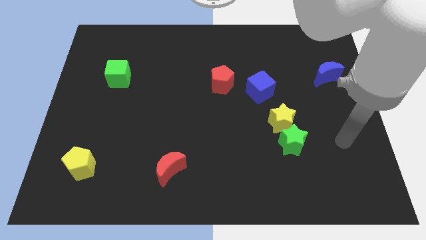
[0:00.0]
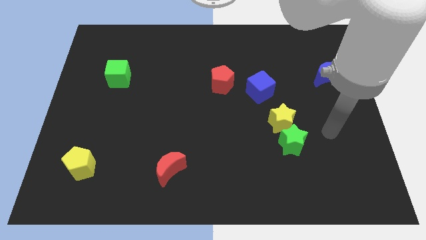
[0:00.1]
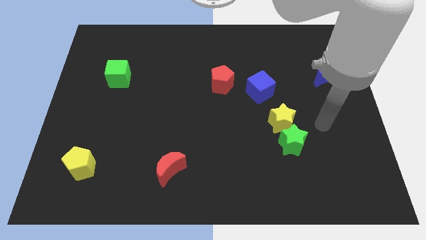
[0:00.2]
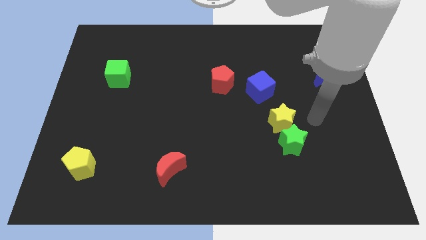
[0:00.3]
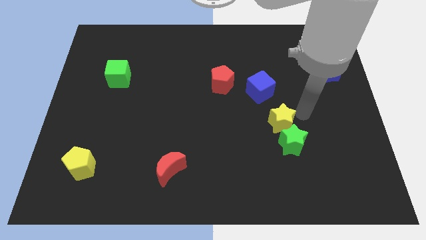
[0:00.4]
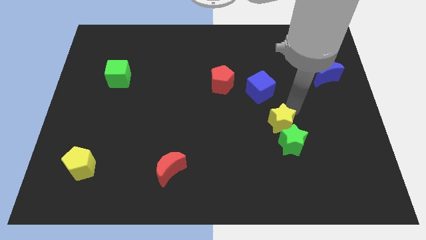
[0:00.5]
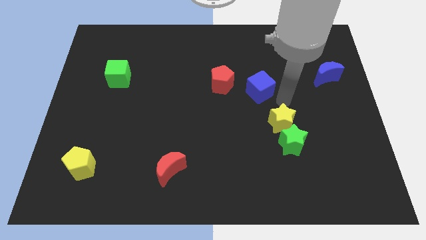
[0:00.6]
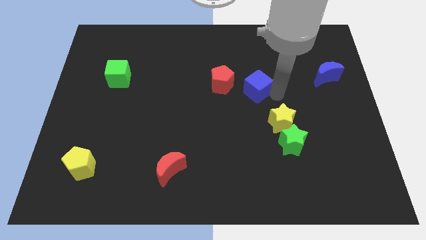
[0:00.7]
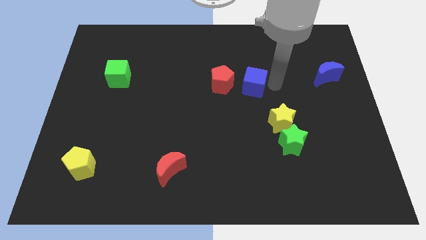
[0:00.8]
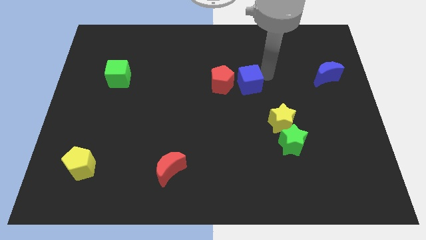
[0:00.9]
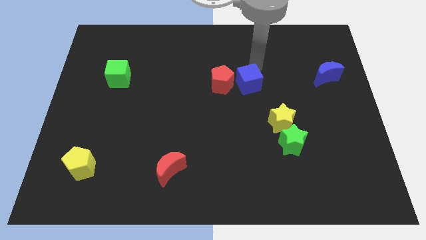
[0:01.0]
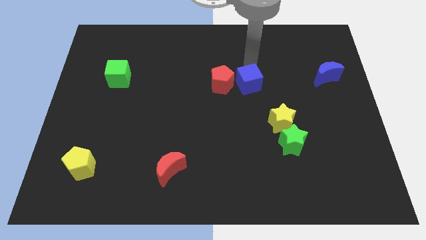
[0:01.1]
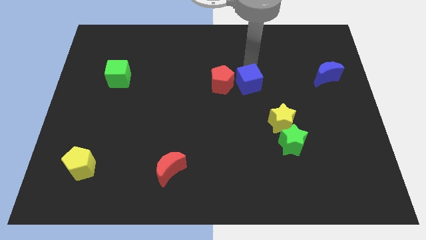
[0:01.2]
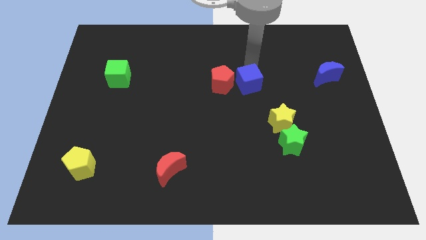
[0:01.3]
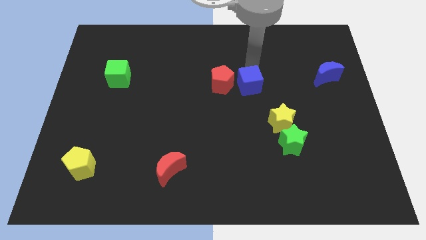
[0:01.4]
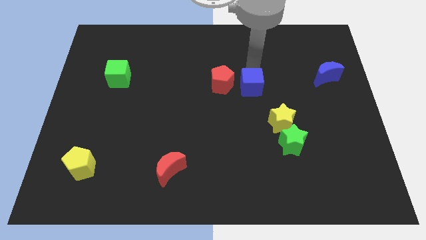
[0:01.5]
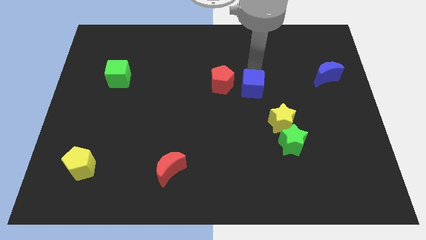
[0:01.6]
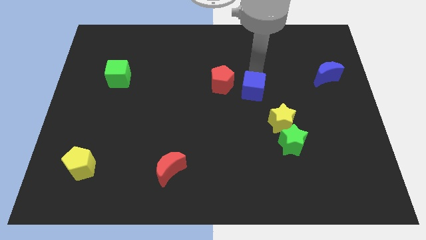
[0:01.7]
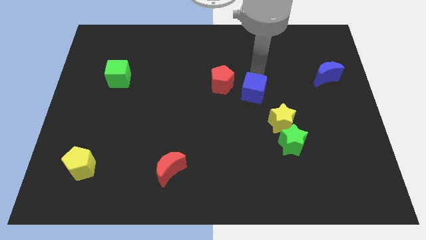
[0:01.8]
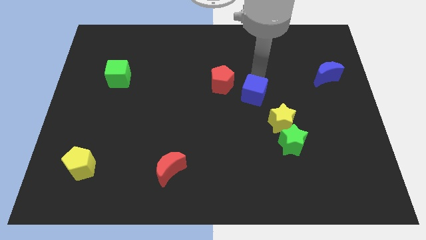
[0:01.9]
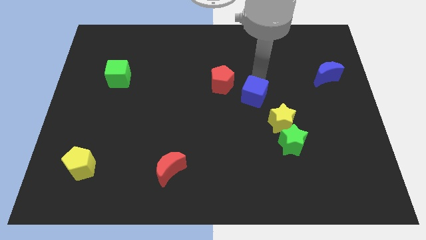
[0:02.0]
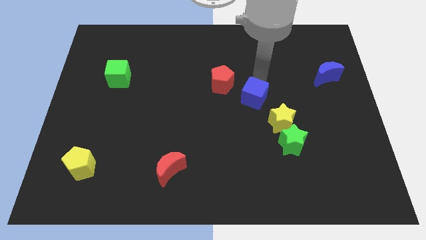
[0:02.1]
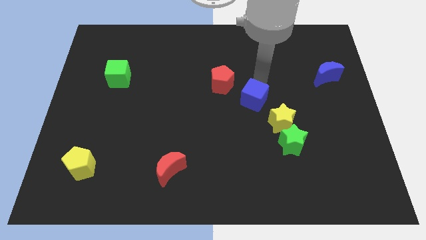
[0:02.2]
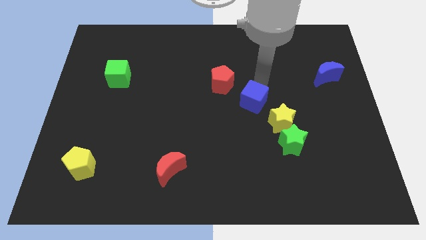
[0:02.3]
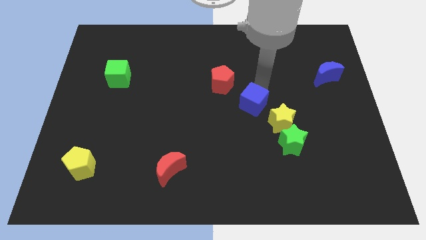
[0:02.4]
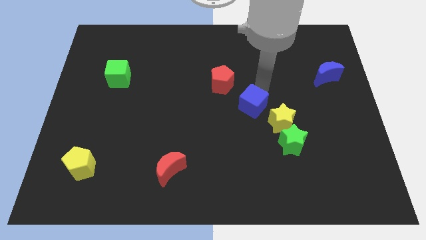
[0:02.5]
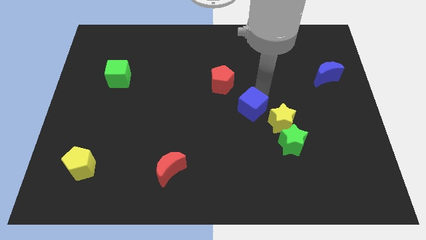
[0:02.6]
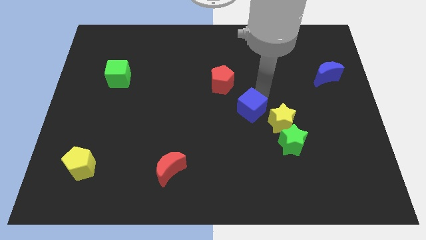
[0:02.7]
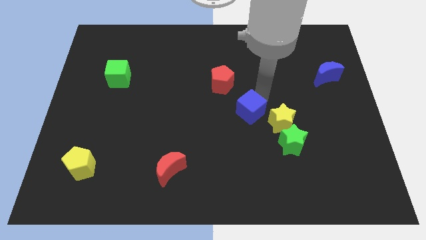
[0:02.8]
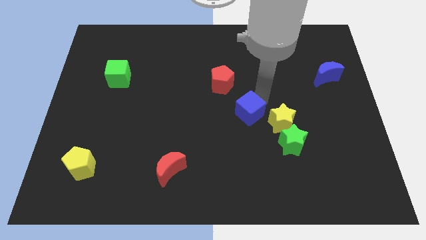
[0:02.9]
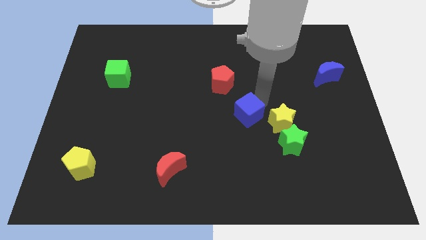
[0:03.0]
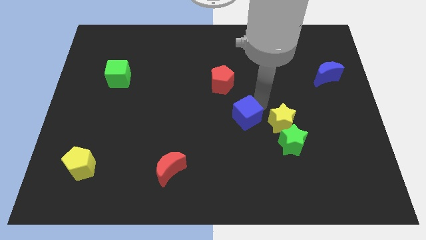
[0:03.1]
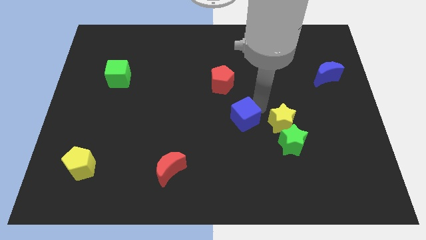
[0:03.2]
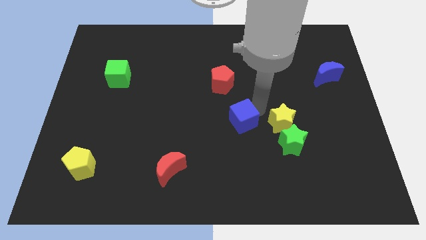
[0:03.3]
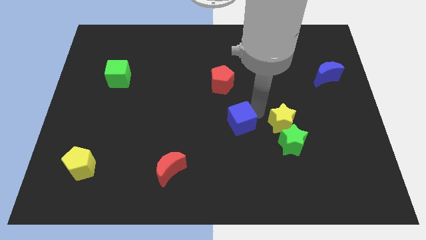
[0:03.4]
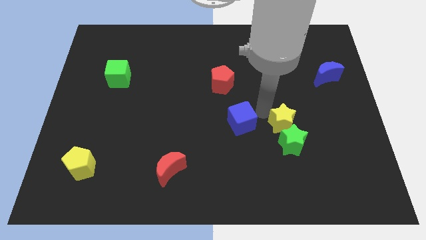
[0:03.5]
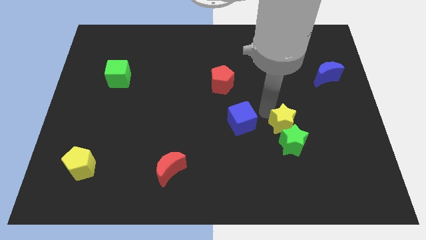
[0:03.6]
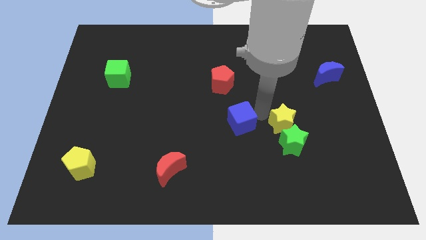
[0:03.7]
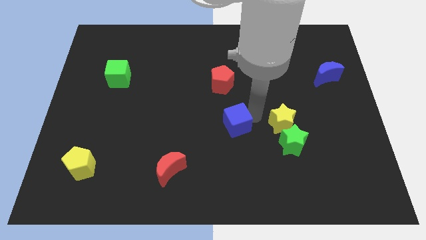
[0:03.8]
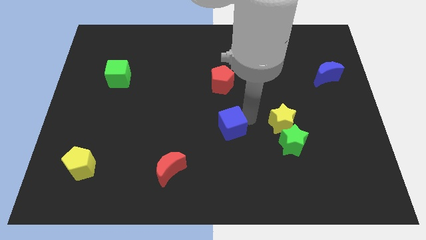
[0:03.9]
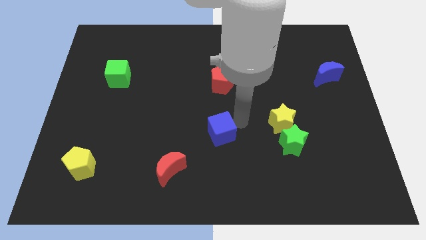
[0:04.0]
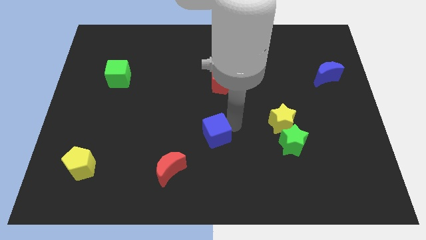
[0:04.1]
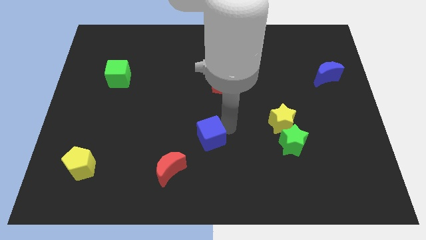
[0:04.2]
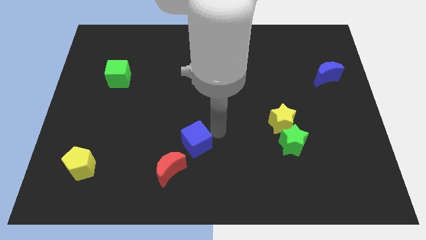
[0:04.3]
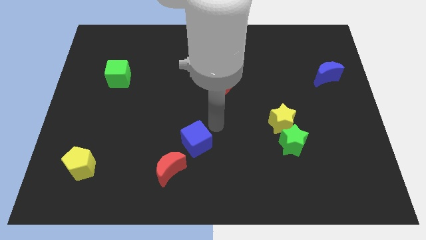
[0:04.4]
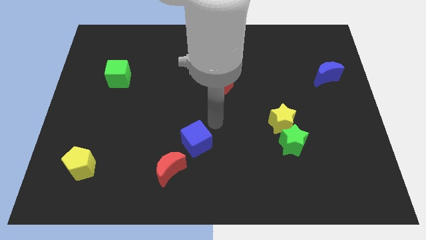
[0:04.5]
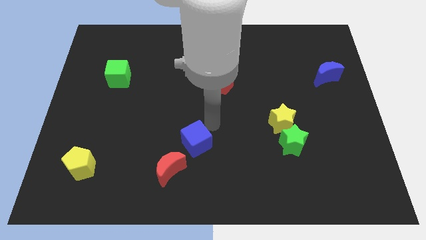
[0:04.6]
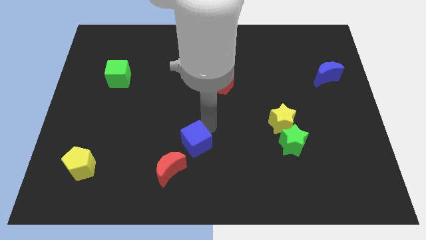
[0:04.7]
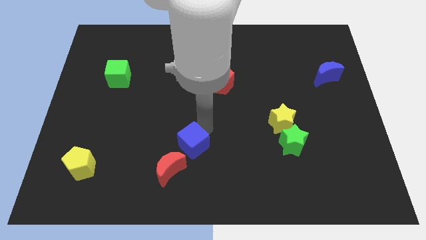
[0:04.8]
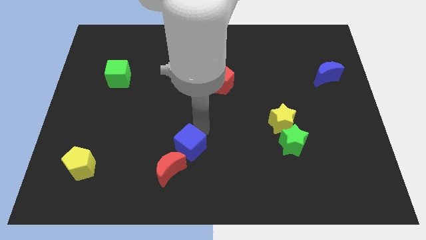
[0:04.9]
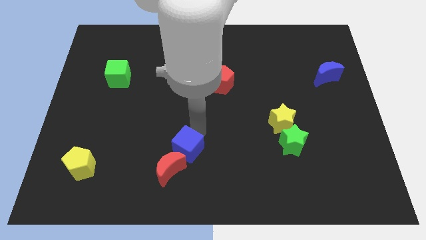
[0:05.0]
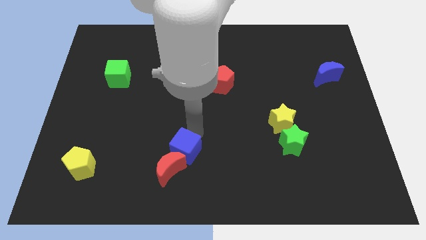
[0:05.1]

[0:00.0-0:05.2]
move the blue cube next to the red moon

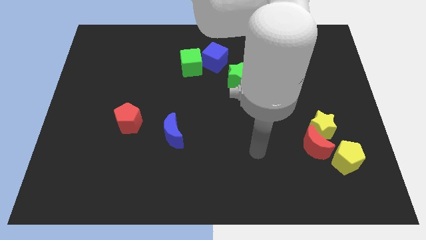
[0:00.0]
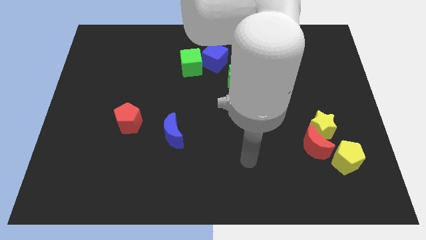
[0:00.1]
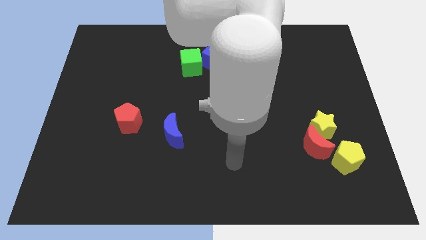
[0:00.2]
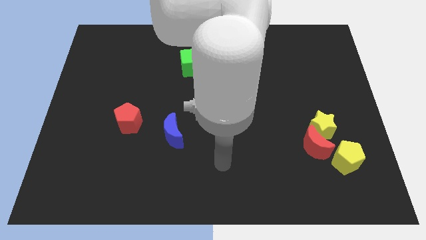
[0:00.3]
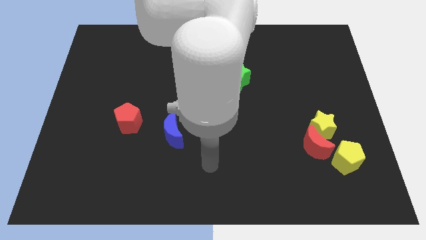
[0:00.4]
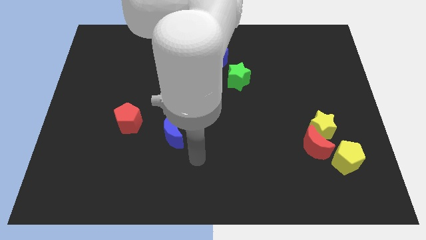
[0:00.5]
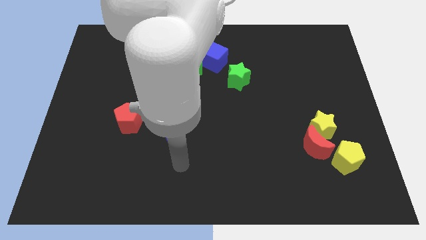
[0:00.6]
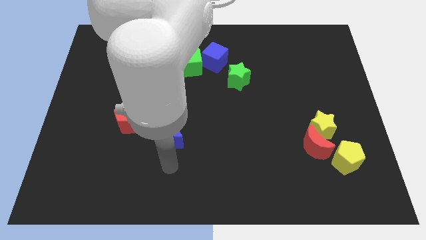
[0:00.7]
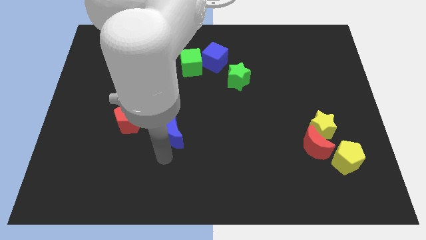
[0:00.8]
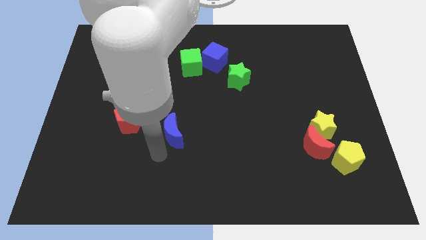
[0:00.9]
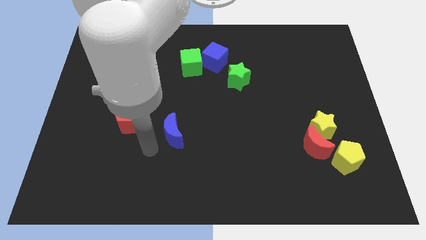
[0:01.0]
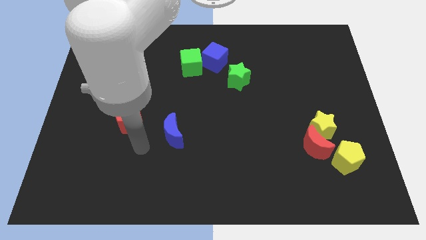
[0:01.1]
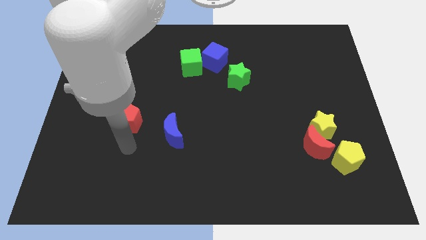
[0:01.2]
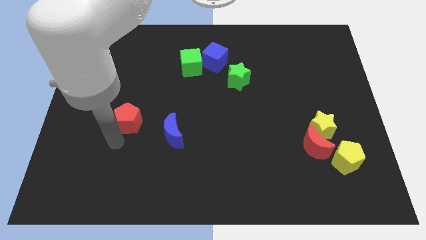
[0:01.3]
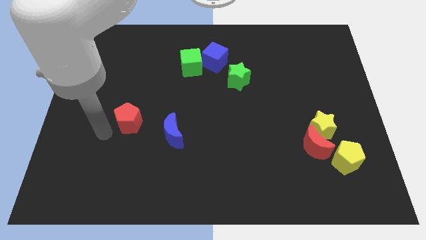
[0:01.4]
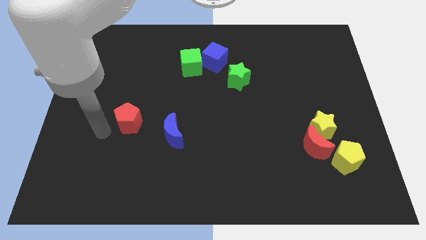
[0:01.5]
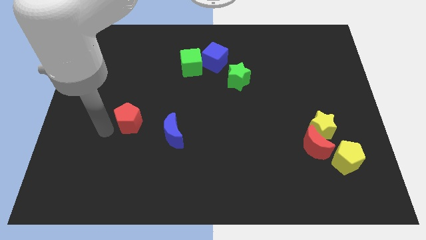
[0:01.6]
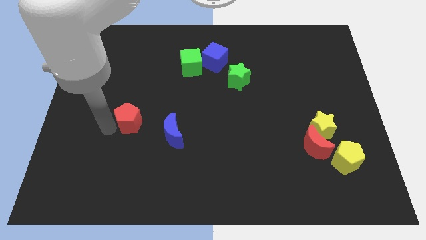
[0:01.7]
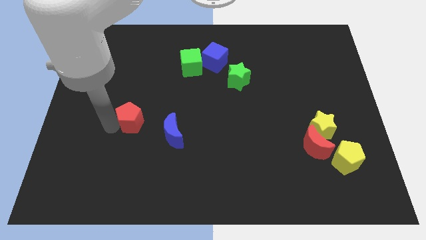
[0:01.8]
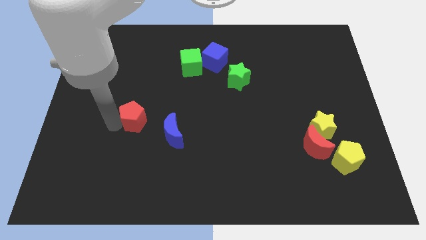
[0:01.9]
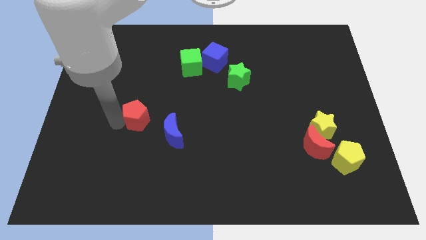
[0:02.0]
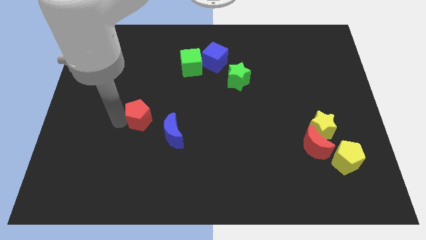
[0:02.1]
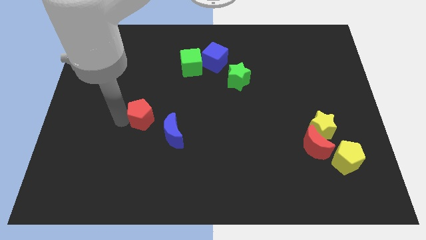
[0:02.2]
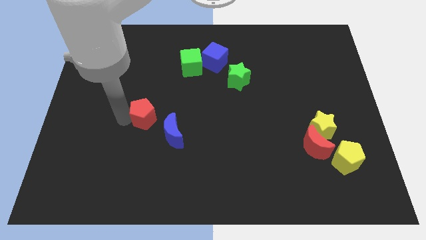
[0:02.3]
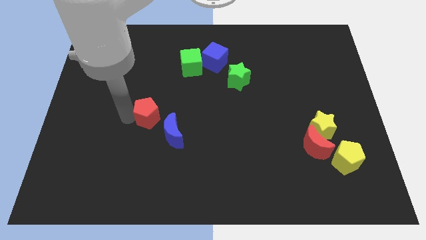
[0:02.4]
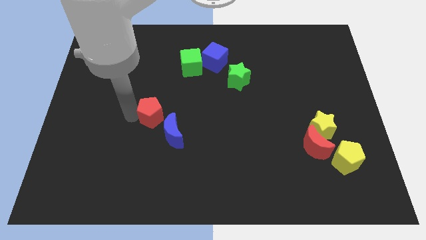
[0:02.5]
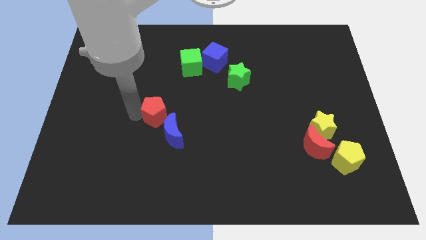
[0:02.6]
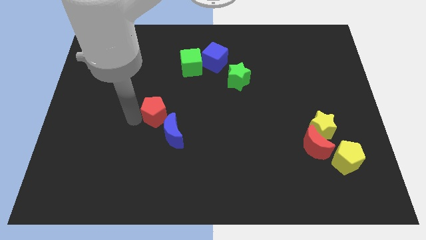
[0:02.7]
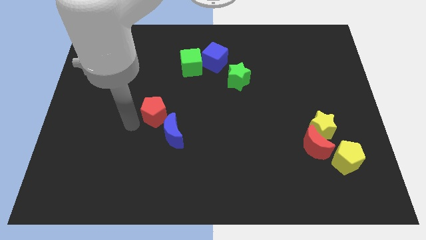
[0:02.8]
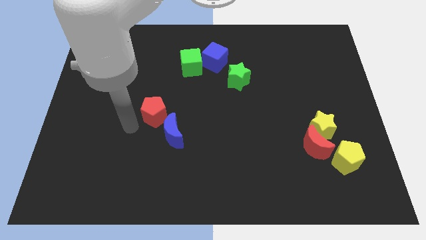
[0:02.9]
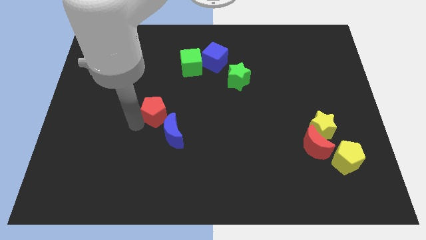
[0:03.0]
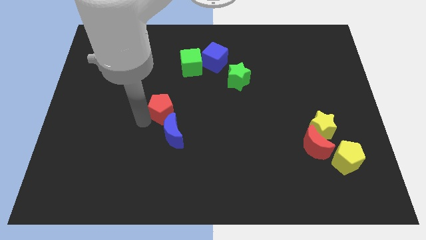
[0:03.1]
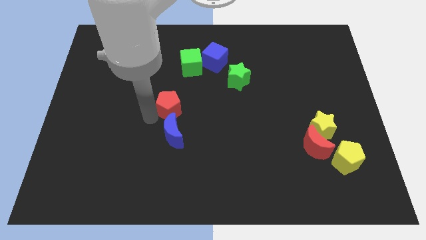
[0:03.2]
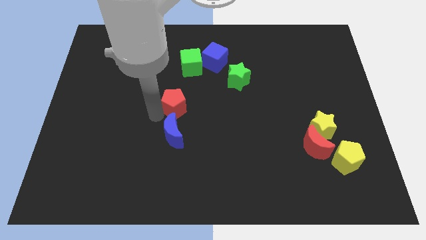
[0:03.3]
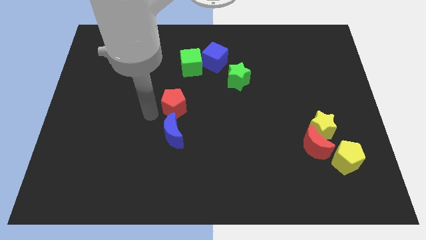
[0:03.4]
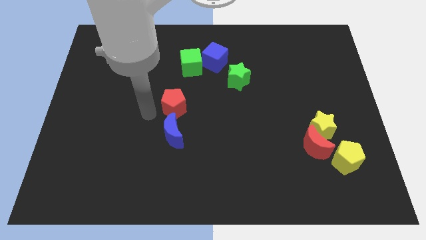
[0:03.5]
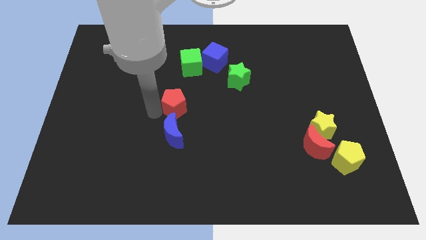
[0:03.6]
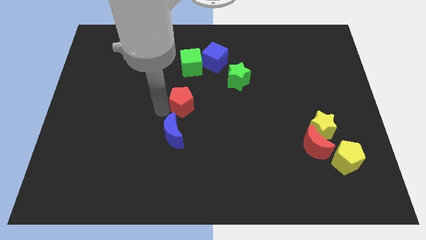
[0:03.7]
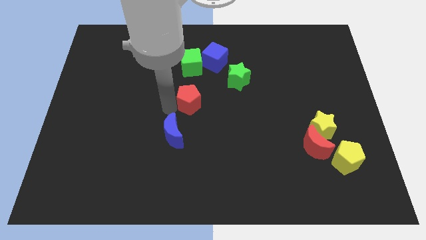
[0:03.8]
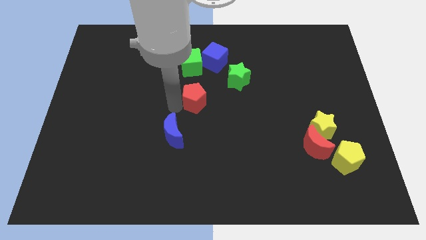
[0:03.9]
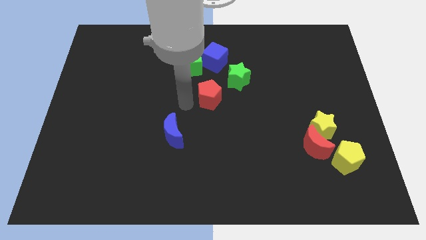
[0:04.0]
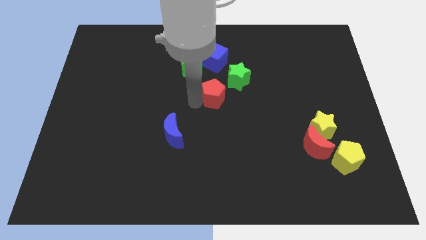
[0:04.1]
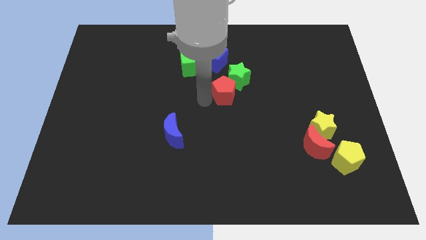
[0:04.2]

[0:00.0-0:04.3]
slide the red pentagon to the green star
